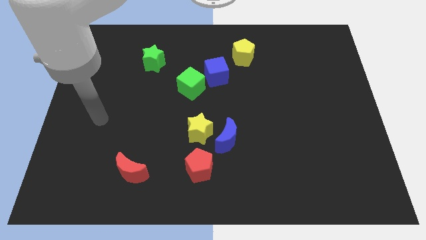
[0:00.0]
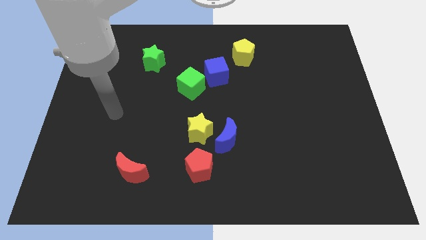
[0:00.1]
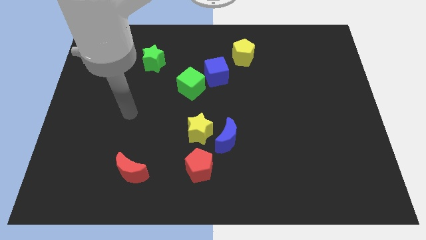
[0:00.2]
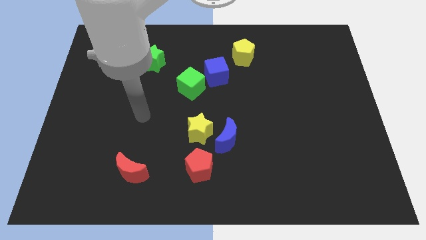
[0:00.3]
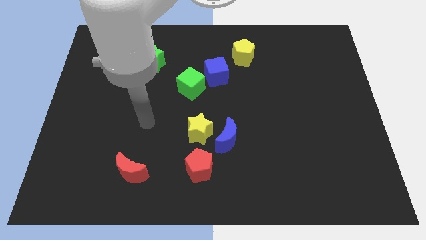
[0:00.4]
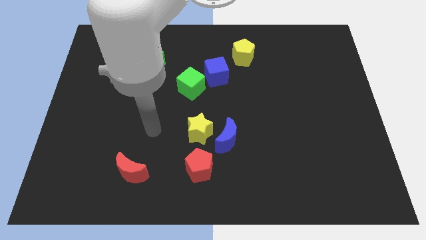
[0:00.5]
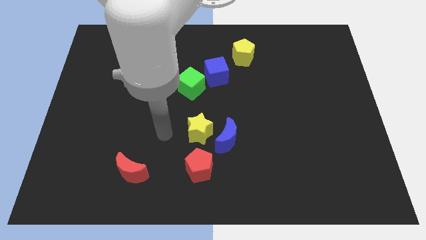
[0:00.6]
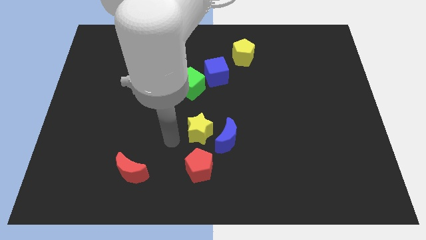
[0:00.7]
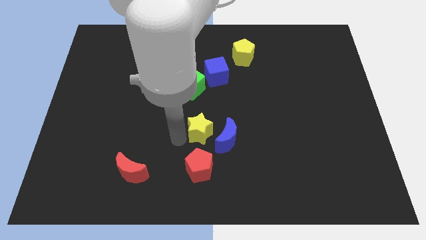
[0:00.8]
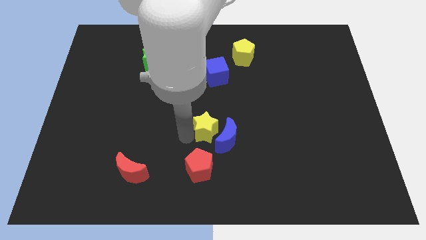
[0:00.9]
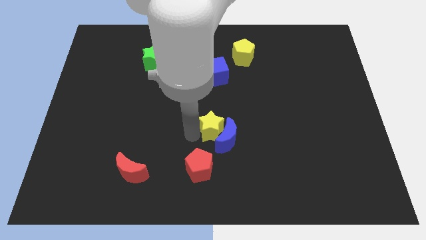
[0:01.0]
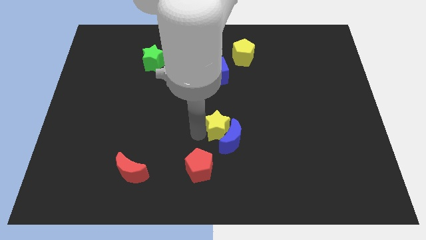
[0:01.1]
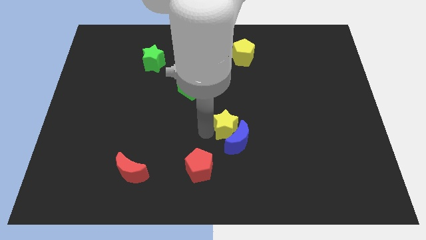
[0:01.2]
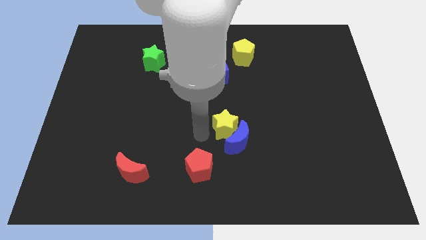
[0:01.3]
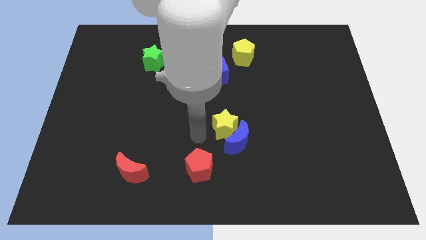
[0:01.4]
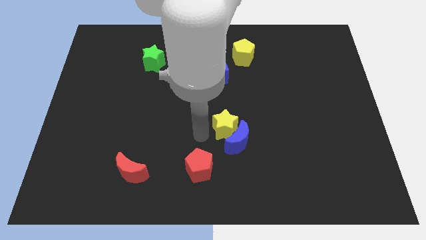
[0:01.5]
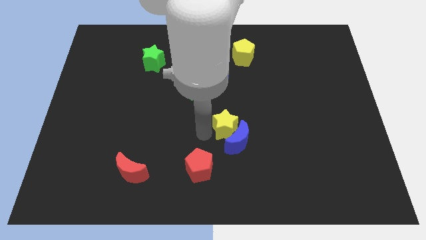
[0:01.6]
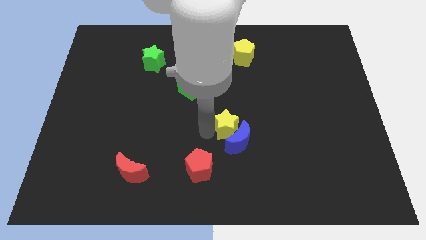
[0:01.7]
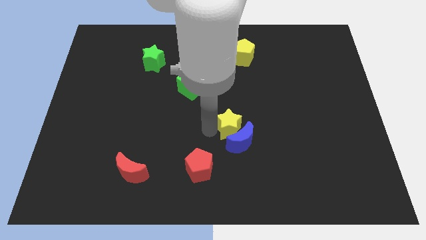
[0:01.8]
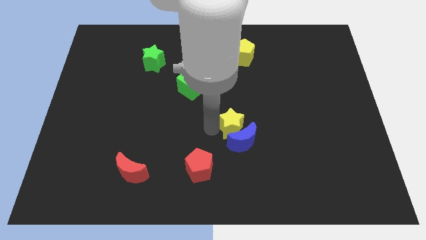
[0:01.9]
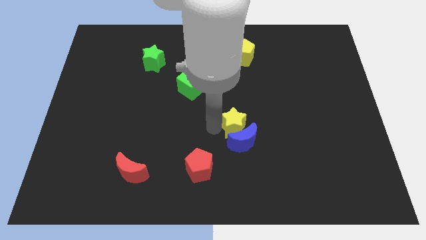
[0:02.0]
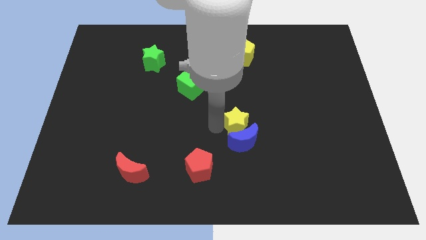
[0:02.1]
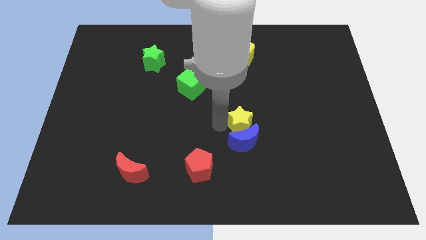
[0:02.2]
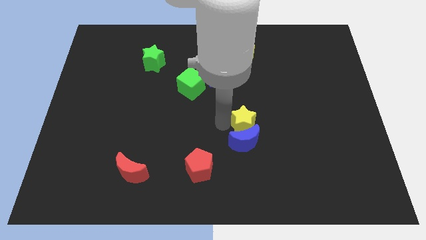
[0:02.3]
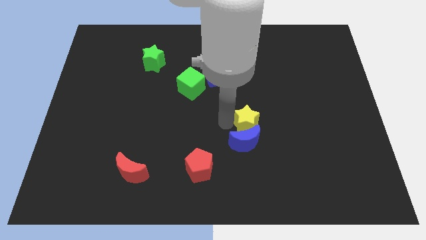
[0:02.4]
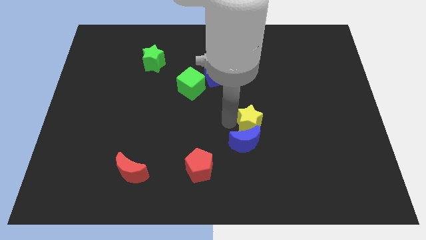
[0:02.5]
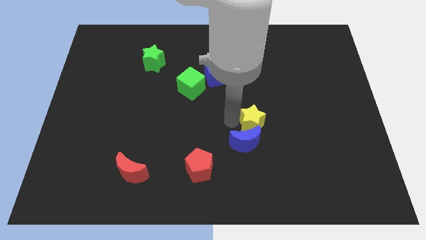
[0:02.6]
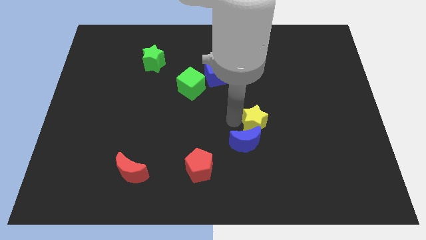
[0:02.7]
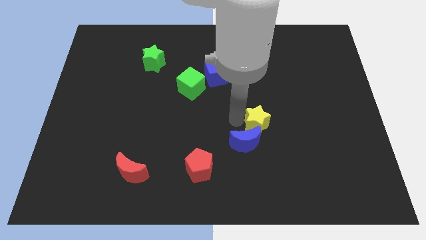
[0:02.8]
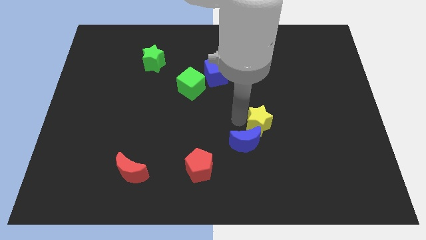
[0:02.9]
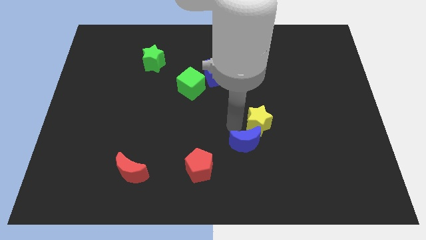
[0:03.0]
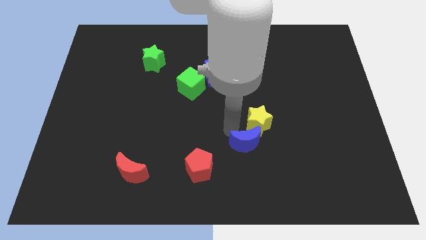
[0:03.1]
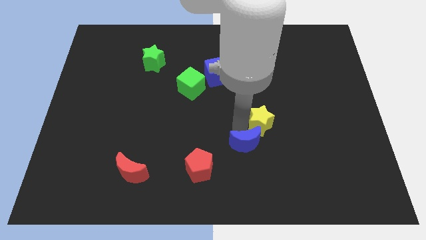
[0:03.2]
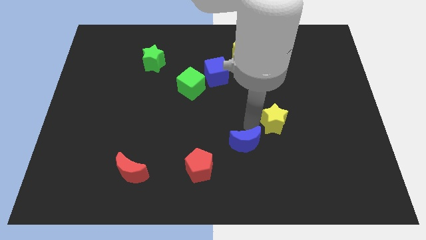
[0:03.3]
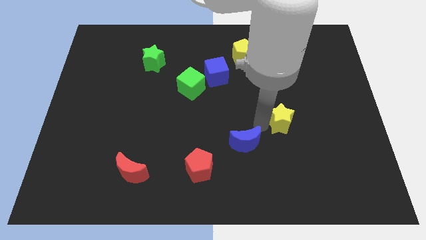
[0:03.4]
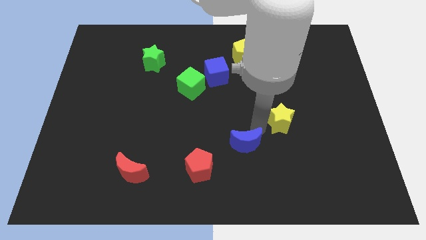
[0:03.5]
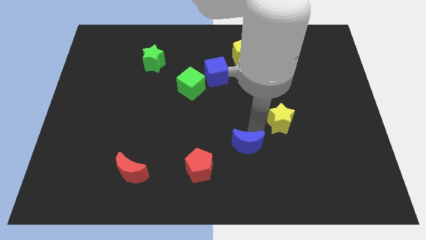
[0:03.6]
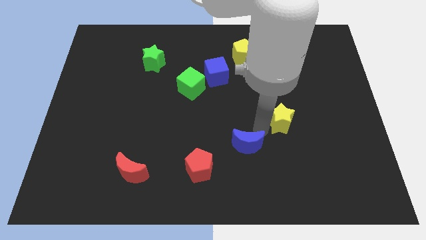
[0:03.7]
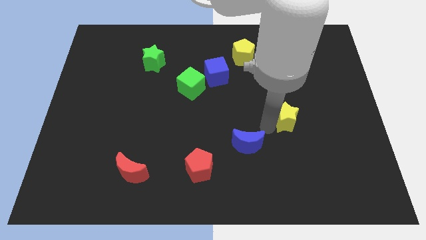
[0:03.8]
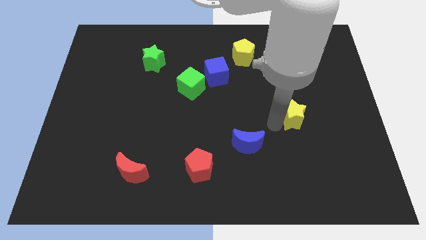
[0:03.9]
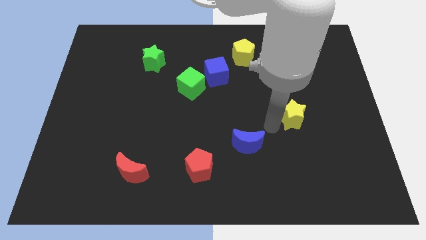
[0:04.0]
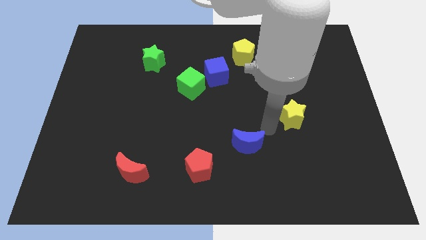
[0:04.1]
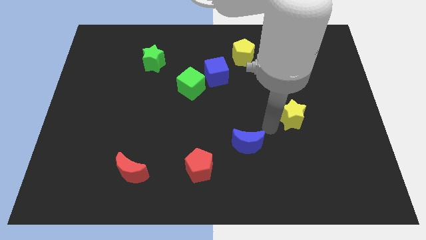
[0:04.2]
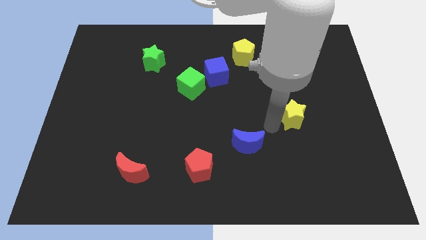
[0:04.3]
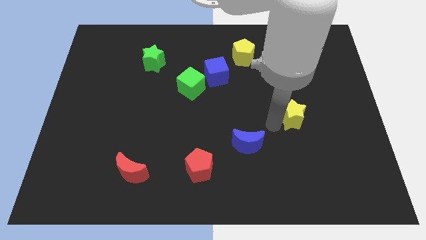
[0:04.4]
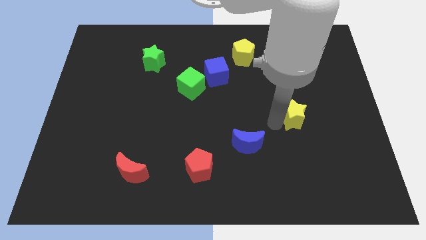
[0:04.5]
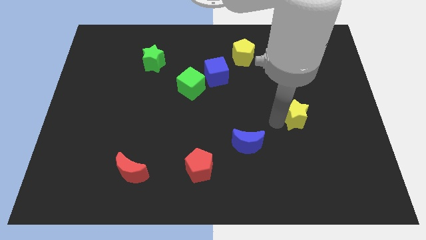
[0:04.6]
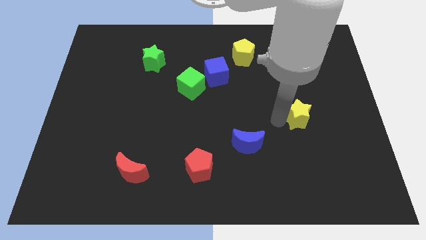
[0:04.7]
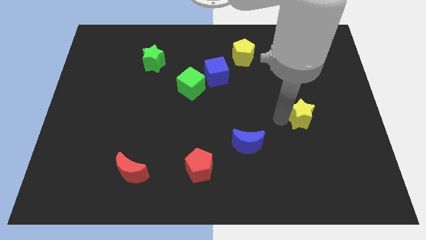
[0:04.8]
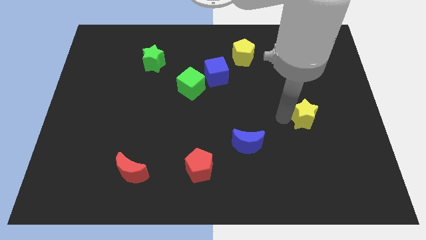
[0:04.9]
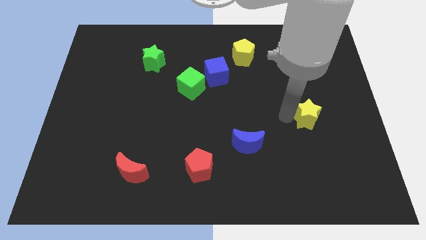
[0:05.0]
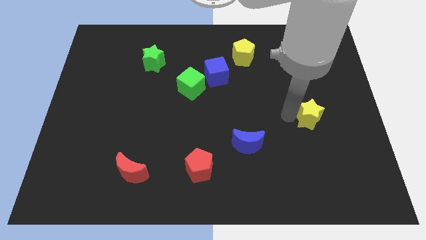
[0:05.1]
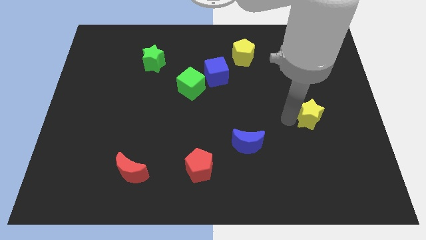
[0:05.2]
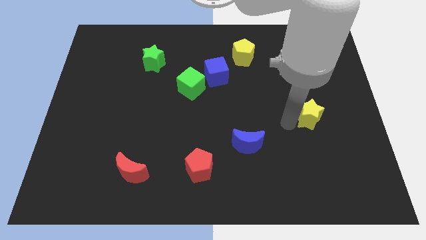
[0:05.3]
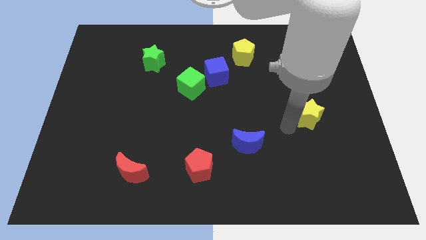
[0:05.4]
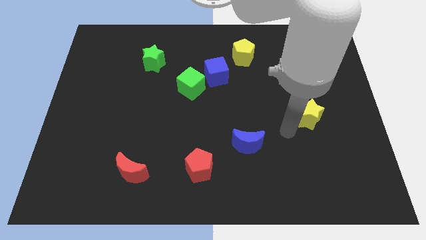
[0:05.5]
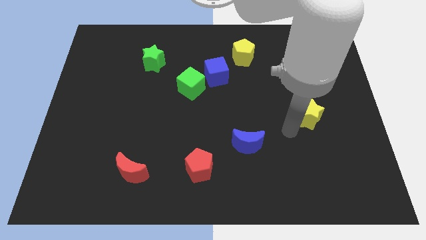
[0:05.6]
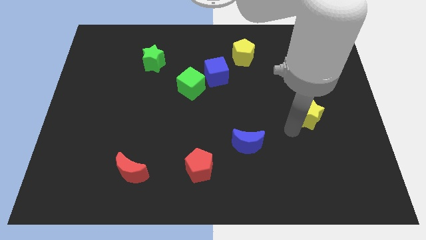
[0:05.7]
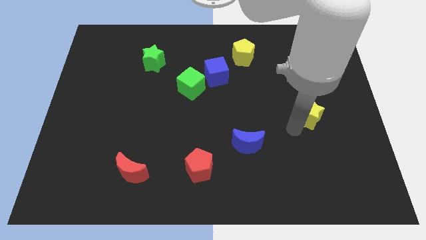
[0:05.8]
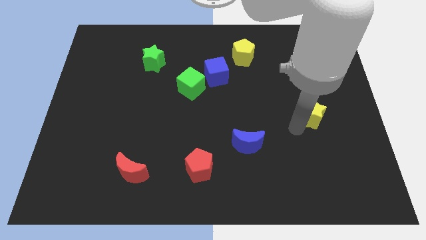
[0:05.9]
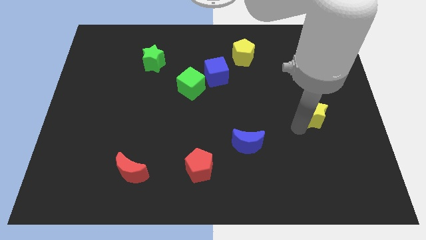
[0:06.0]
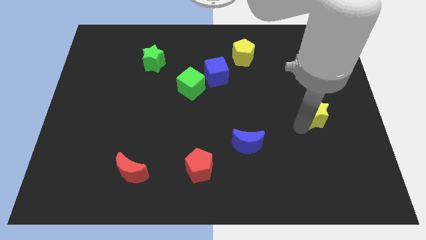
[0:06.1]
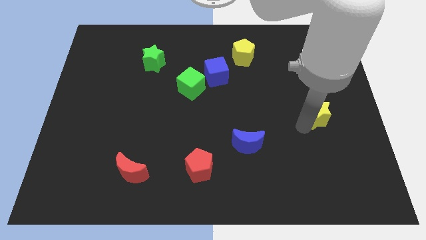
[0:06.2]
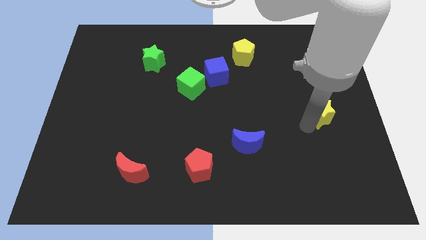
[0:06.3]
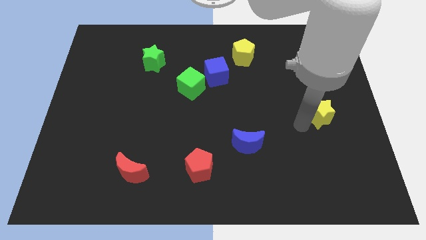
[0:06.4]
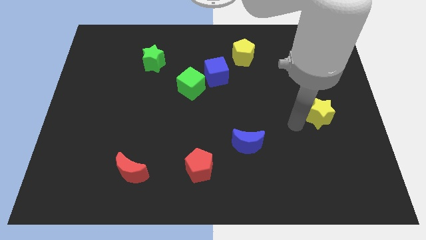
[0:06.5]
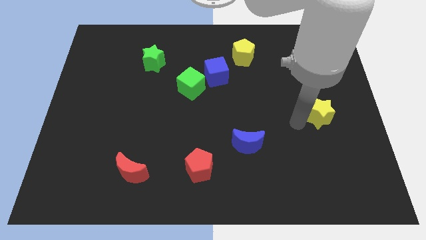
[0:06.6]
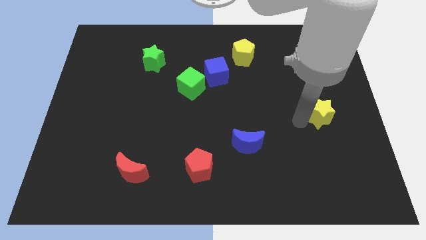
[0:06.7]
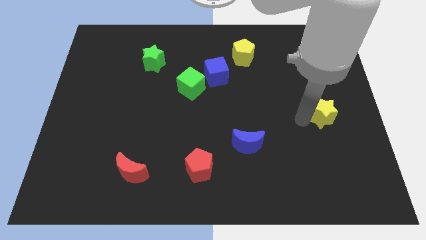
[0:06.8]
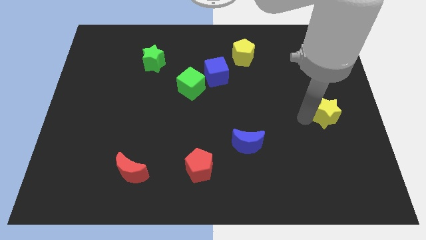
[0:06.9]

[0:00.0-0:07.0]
push the yellow star to the right side of the board

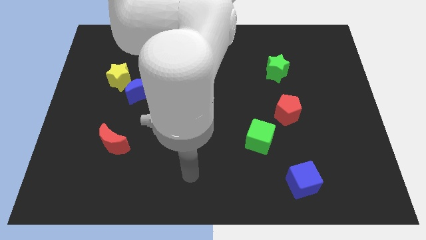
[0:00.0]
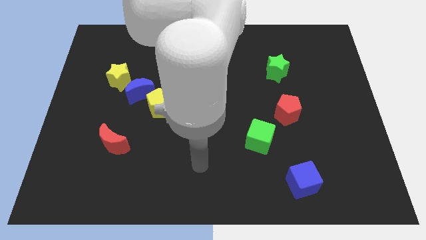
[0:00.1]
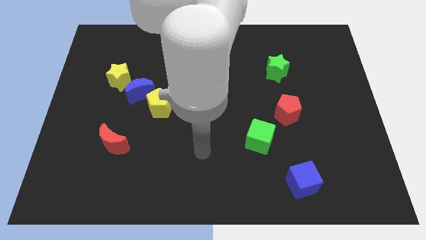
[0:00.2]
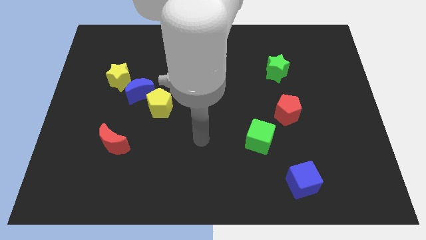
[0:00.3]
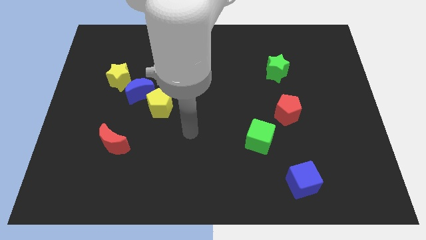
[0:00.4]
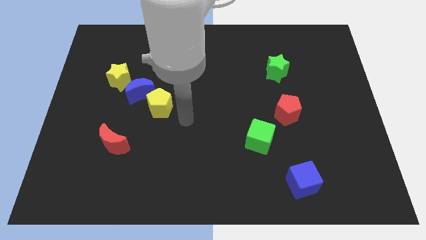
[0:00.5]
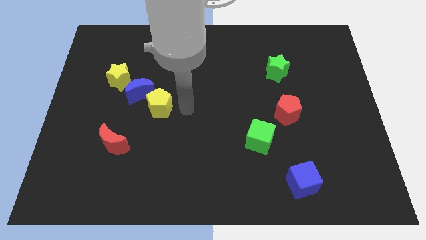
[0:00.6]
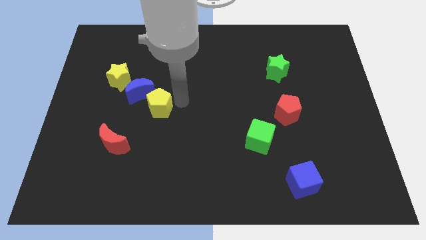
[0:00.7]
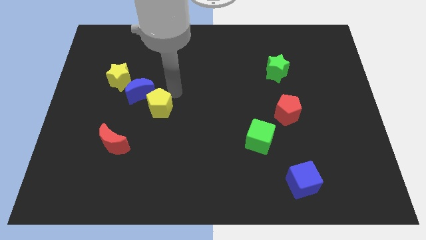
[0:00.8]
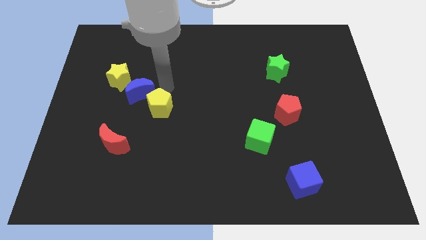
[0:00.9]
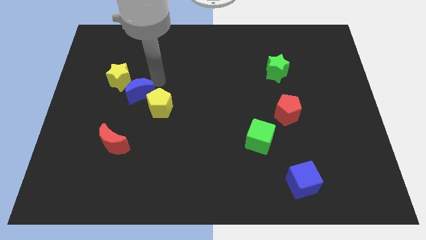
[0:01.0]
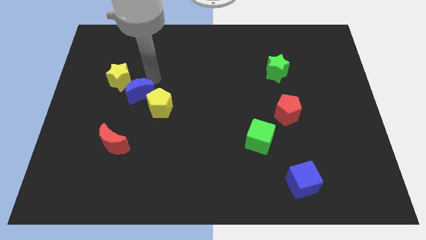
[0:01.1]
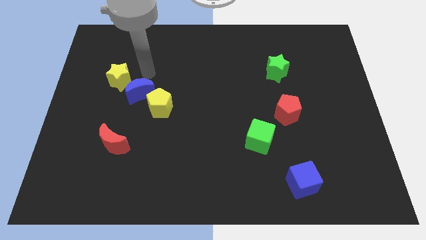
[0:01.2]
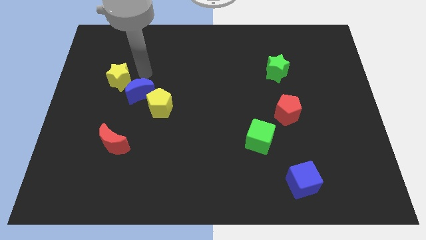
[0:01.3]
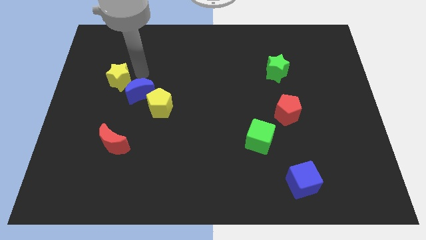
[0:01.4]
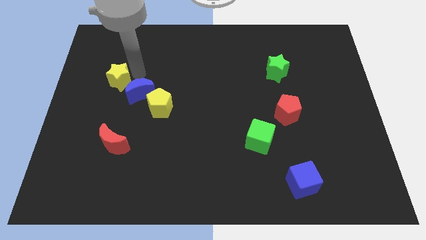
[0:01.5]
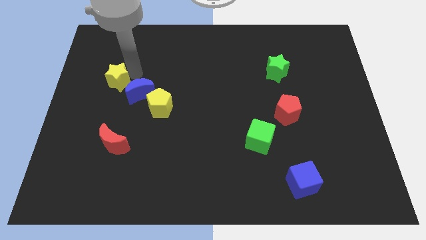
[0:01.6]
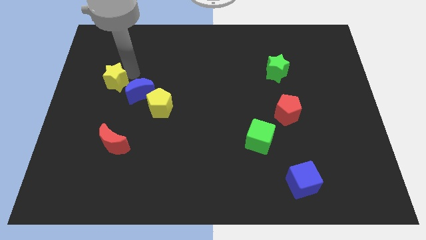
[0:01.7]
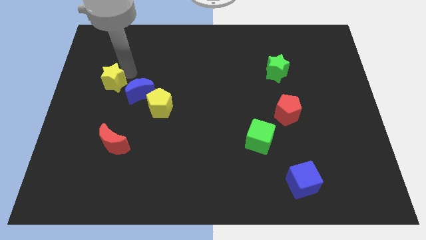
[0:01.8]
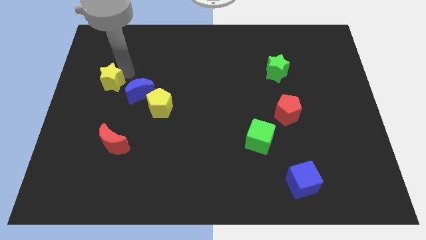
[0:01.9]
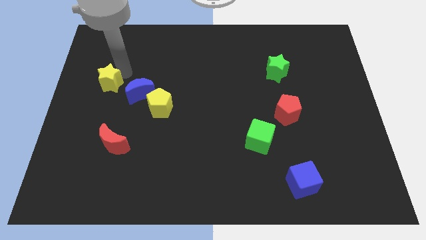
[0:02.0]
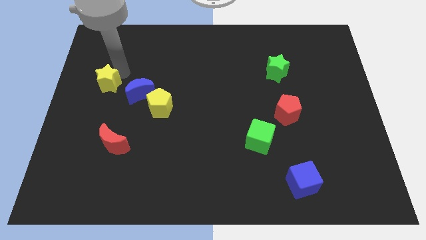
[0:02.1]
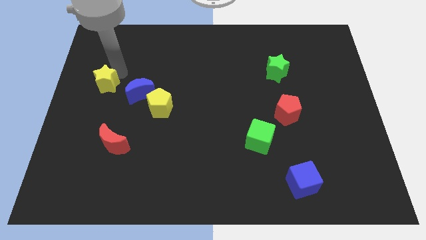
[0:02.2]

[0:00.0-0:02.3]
put the yellow star to the left side
